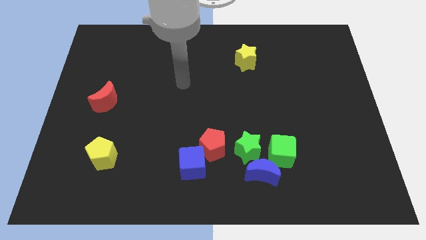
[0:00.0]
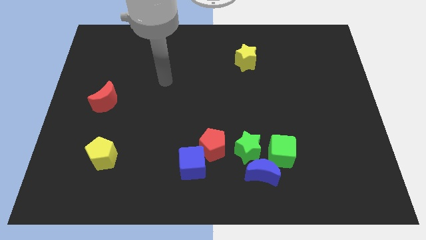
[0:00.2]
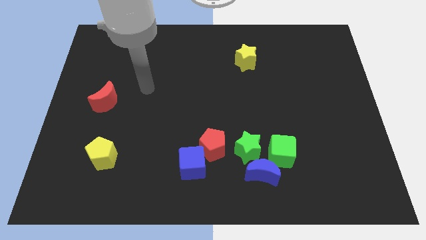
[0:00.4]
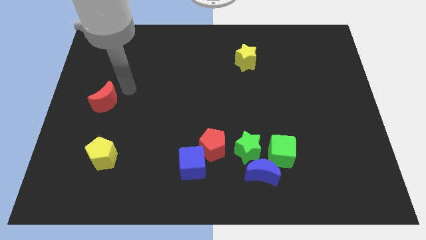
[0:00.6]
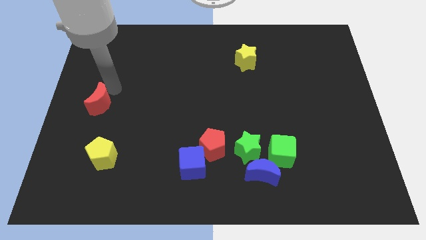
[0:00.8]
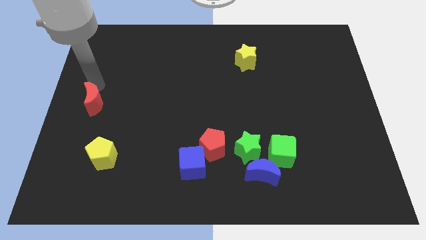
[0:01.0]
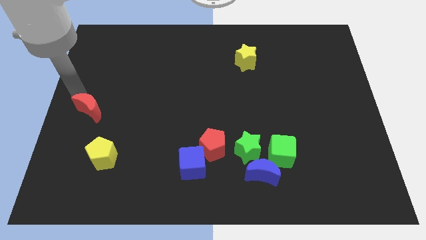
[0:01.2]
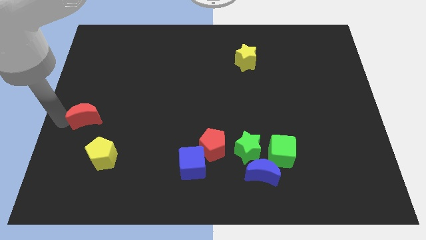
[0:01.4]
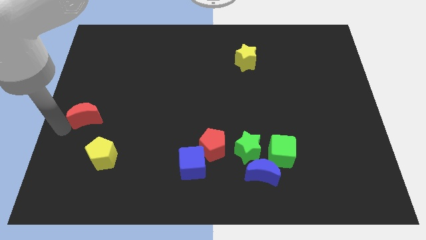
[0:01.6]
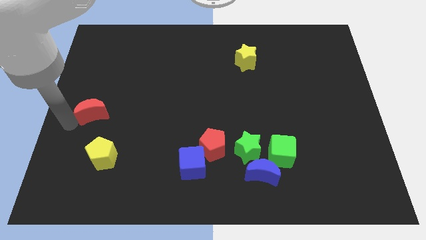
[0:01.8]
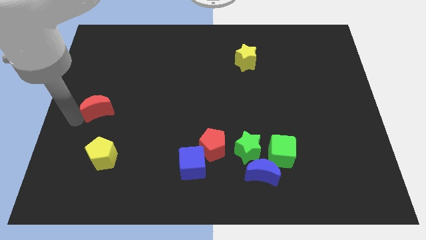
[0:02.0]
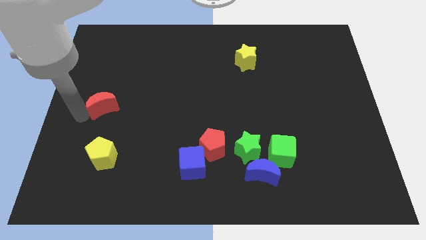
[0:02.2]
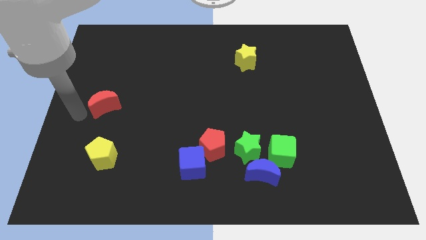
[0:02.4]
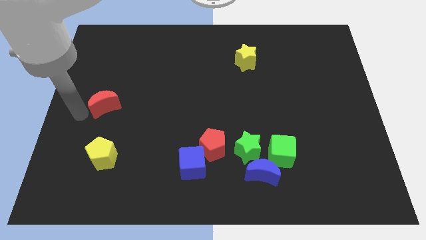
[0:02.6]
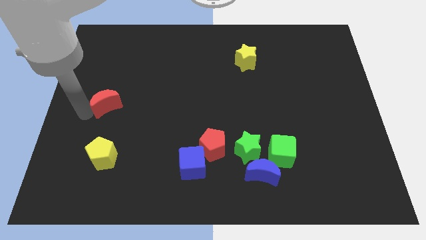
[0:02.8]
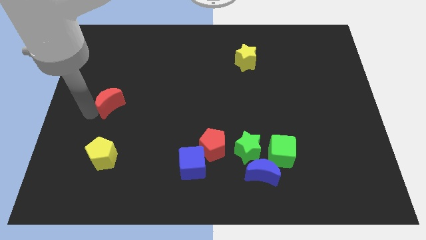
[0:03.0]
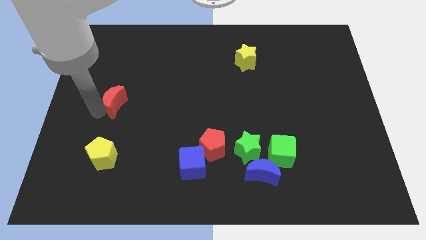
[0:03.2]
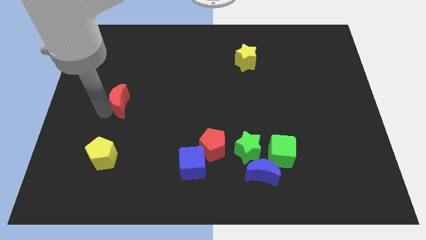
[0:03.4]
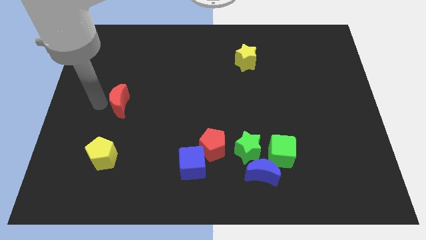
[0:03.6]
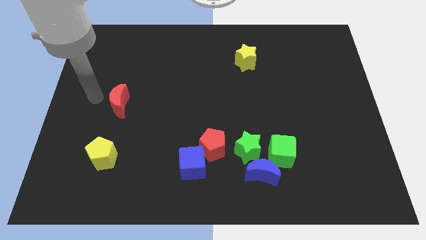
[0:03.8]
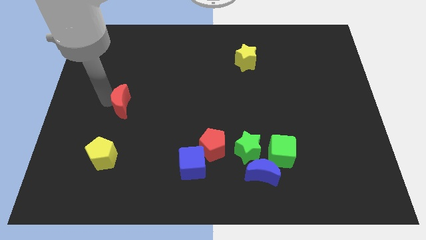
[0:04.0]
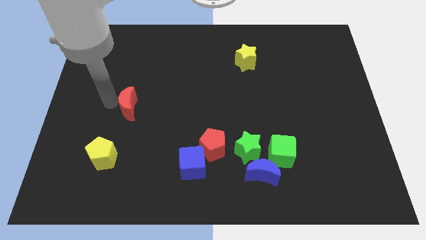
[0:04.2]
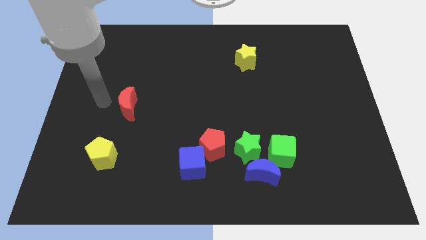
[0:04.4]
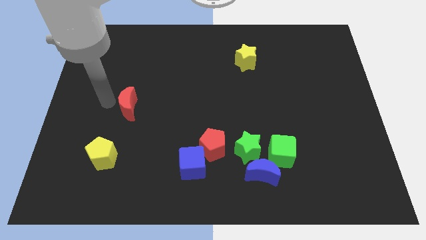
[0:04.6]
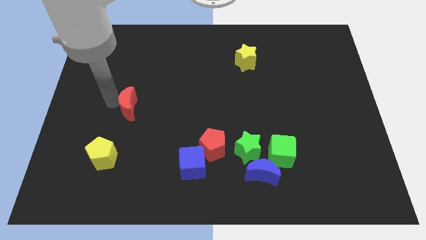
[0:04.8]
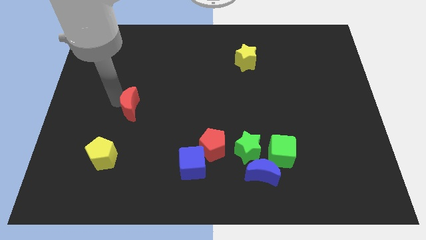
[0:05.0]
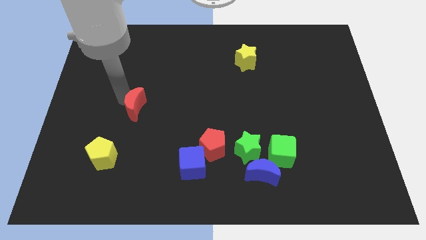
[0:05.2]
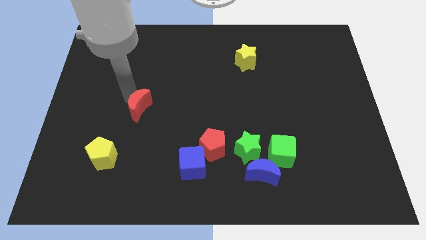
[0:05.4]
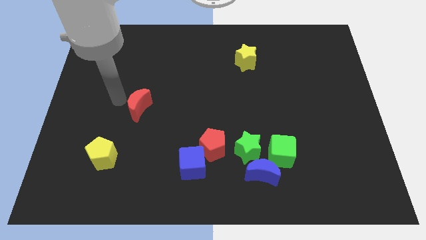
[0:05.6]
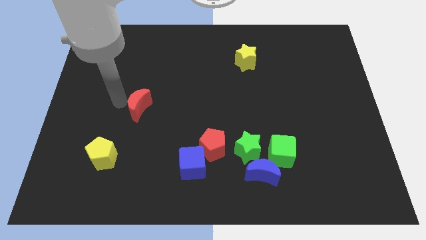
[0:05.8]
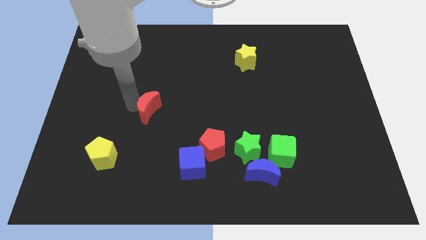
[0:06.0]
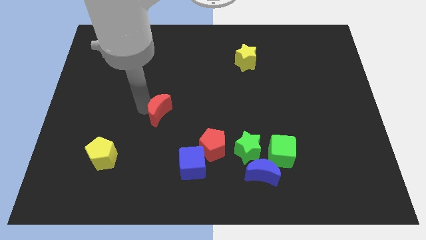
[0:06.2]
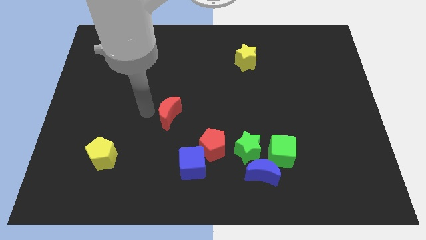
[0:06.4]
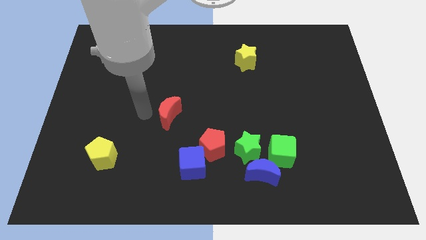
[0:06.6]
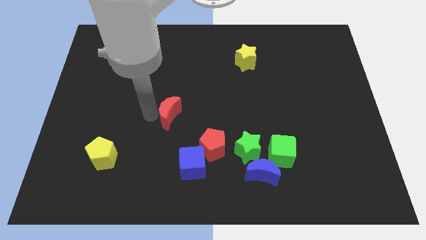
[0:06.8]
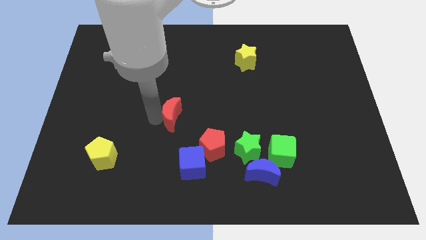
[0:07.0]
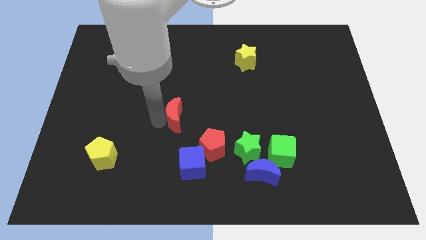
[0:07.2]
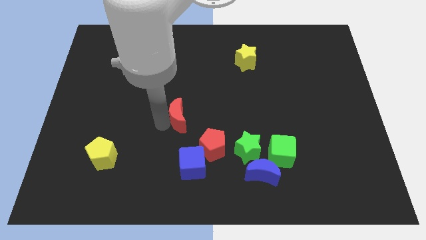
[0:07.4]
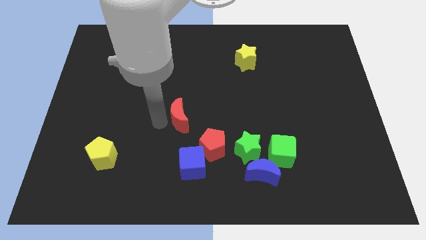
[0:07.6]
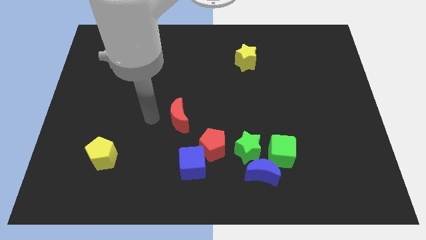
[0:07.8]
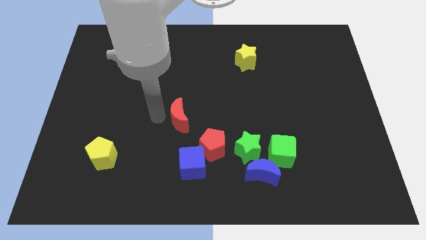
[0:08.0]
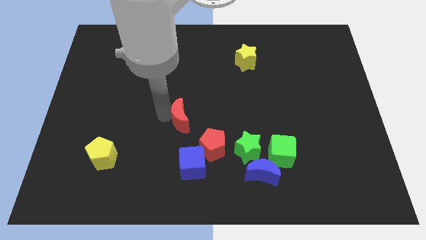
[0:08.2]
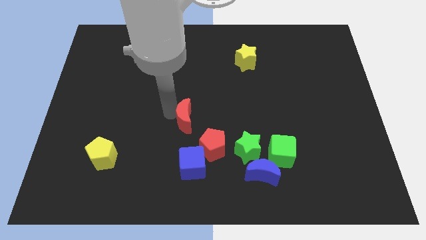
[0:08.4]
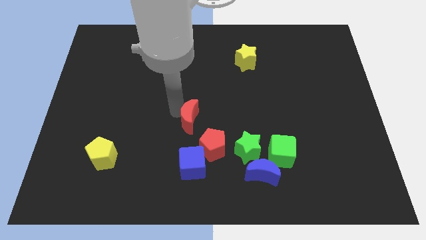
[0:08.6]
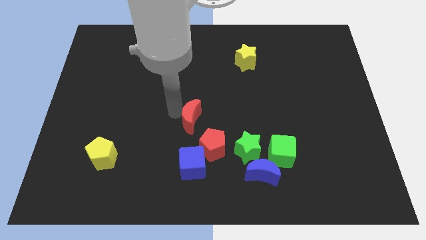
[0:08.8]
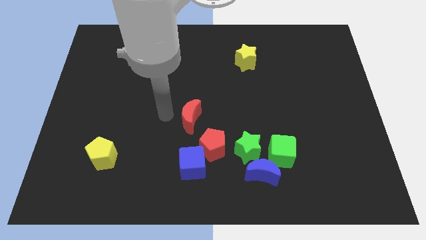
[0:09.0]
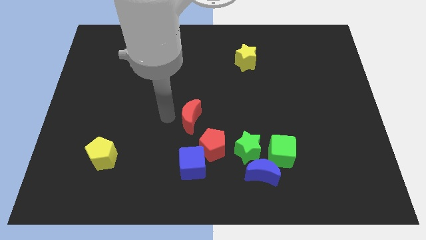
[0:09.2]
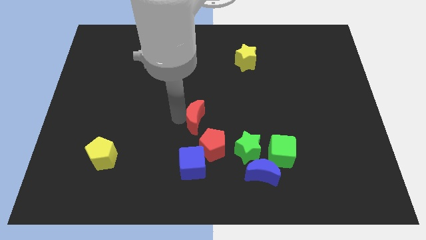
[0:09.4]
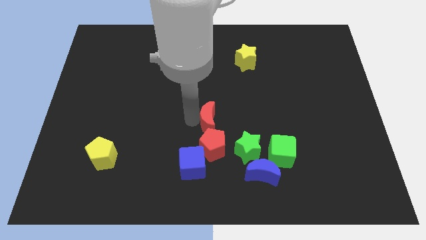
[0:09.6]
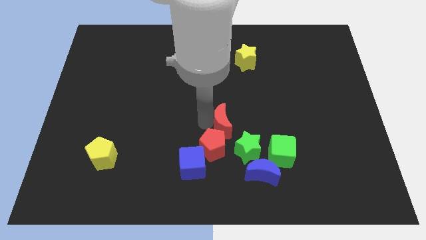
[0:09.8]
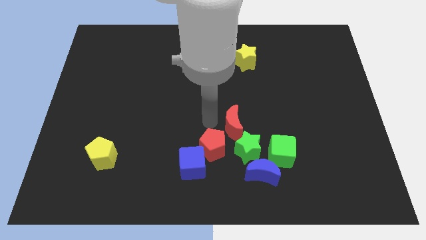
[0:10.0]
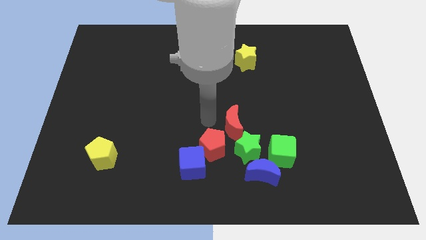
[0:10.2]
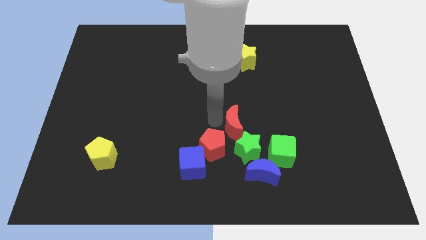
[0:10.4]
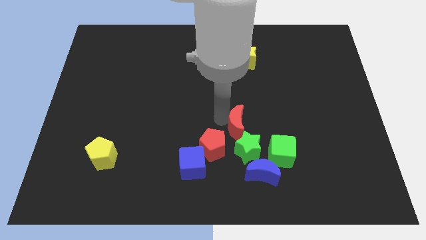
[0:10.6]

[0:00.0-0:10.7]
move the red moon above the blue moon
